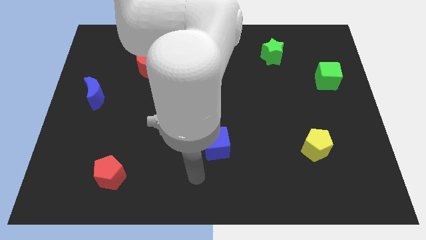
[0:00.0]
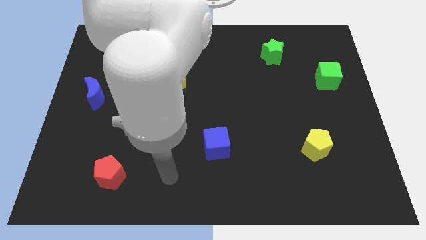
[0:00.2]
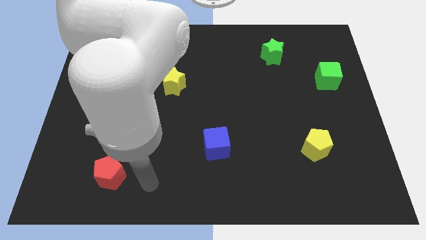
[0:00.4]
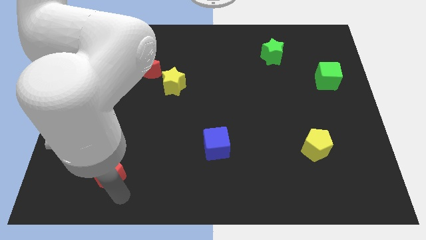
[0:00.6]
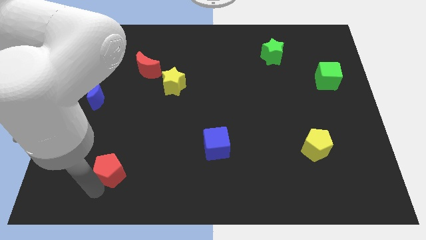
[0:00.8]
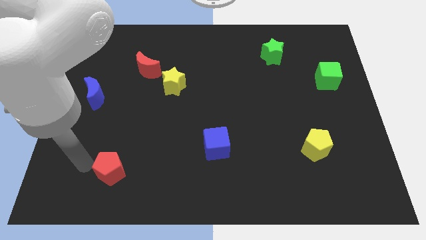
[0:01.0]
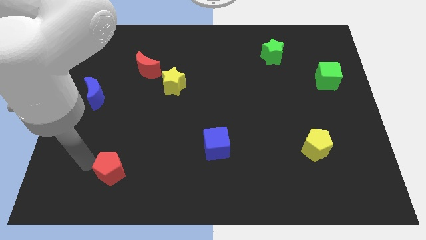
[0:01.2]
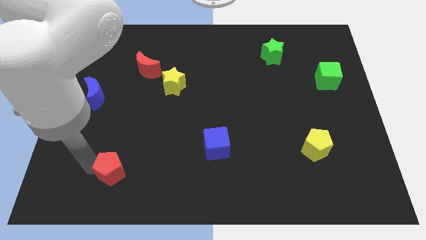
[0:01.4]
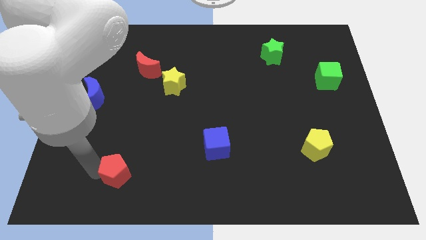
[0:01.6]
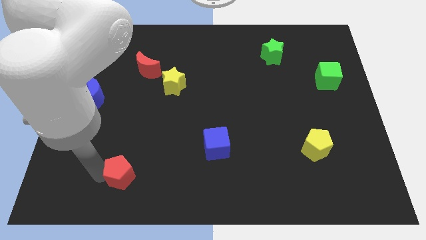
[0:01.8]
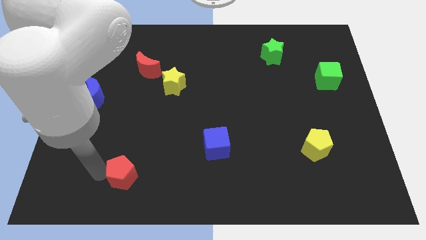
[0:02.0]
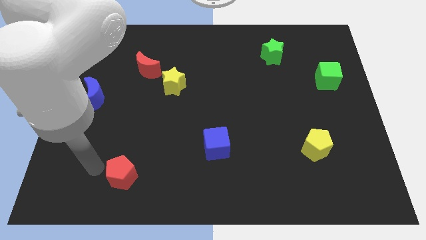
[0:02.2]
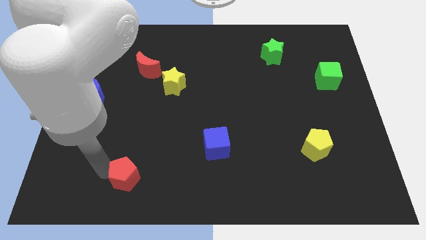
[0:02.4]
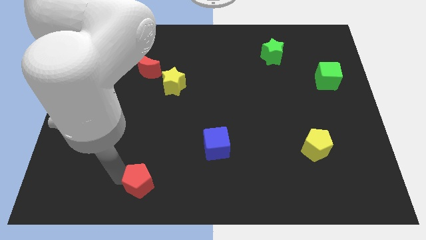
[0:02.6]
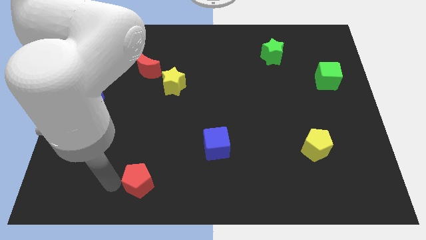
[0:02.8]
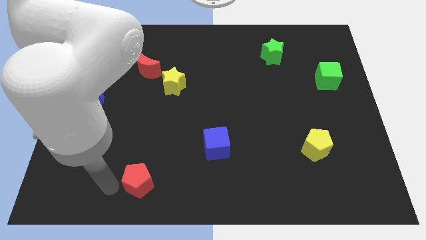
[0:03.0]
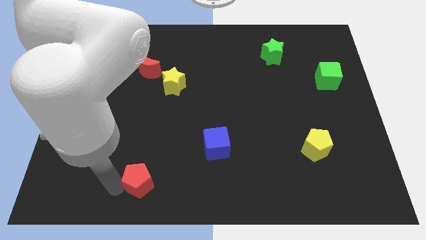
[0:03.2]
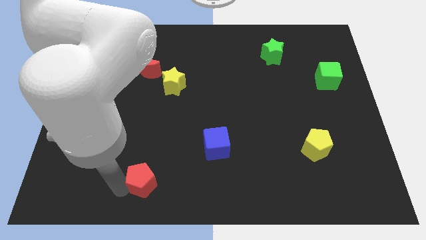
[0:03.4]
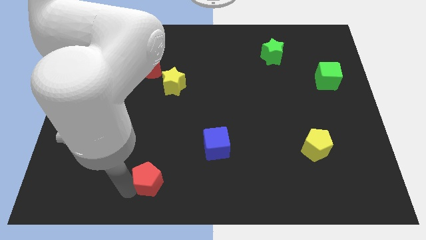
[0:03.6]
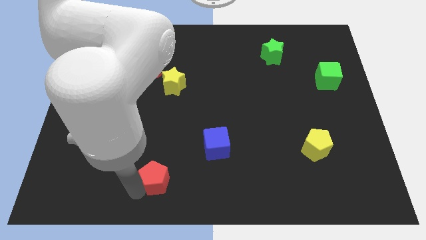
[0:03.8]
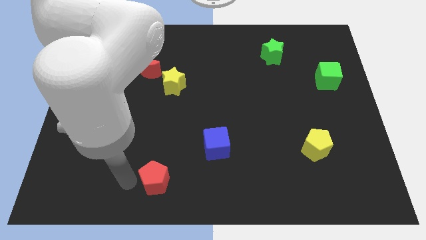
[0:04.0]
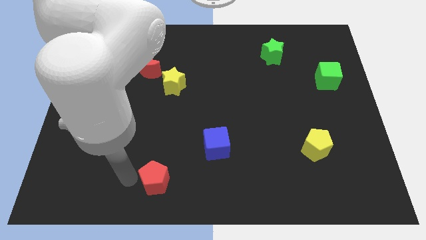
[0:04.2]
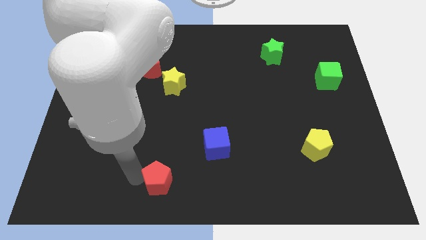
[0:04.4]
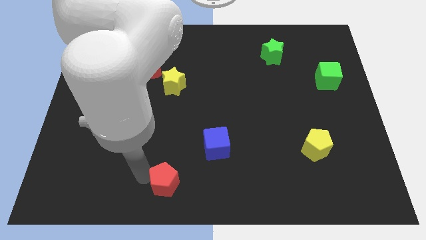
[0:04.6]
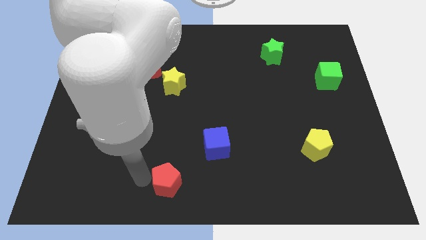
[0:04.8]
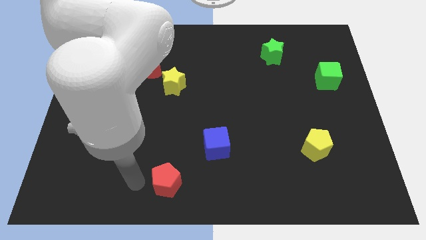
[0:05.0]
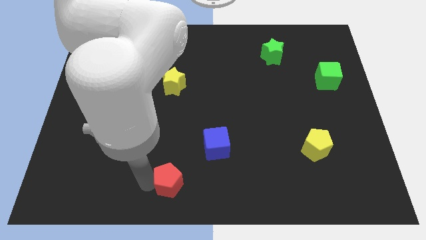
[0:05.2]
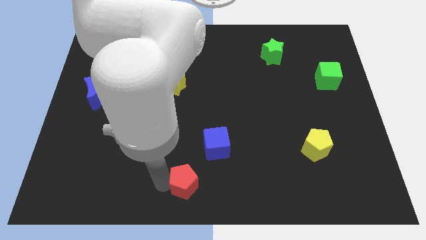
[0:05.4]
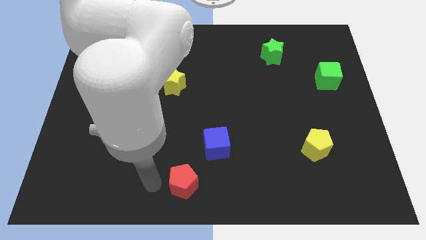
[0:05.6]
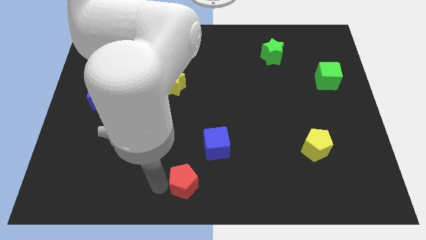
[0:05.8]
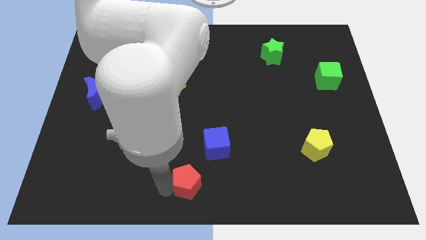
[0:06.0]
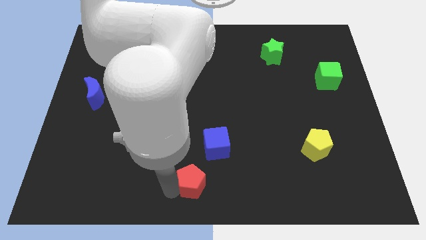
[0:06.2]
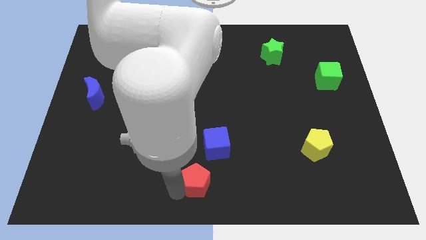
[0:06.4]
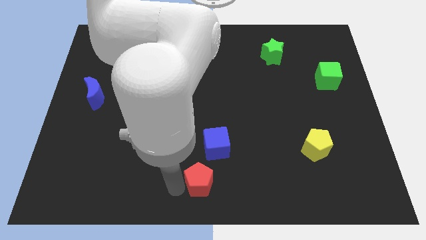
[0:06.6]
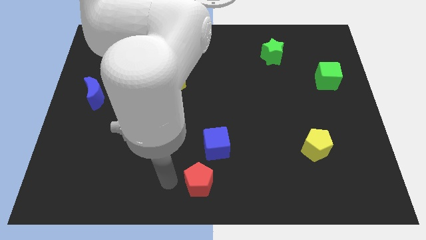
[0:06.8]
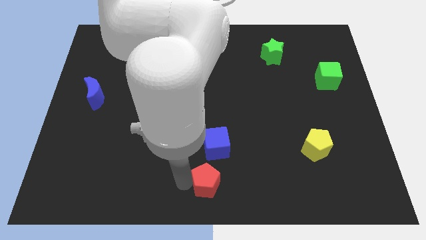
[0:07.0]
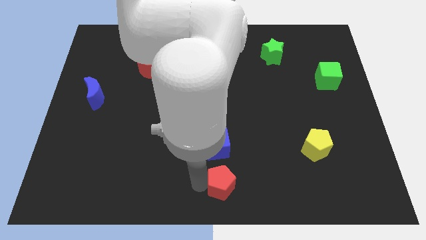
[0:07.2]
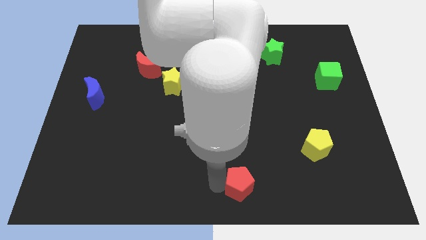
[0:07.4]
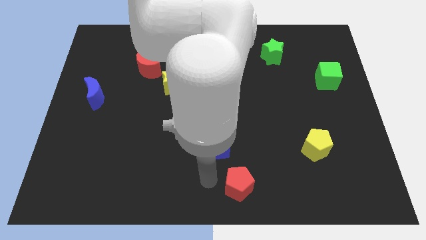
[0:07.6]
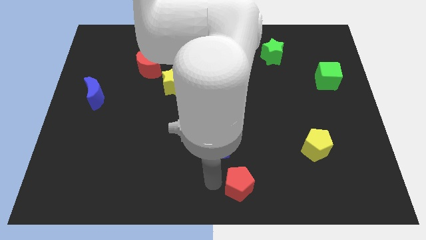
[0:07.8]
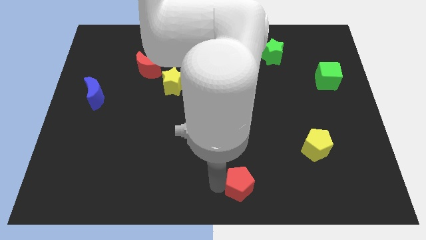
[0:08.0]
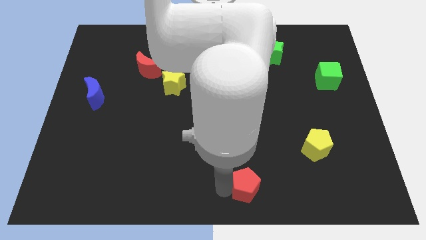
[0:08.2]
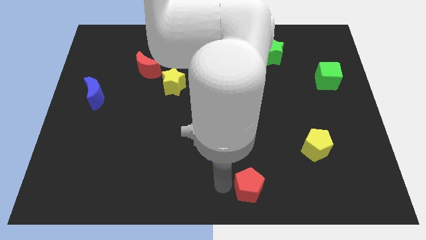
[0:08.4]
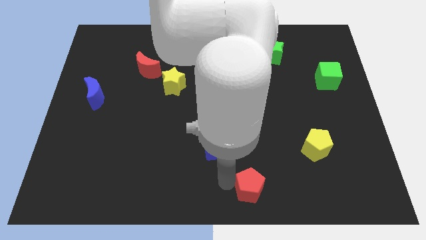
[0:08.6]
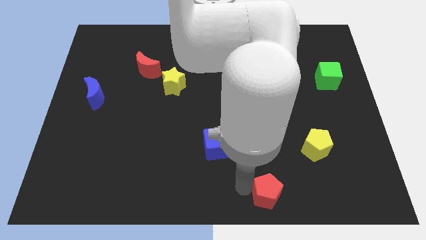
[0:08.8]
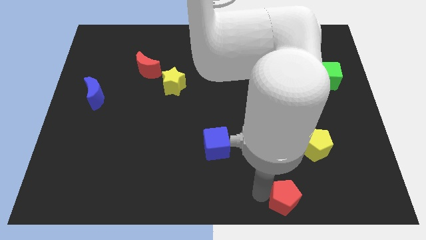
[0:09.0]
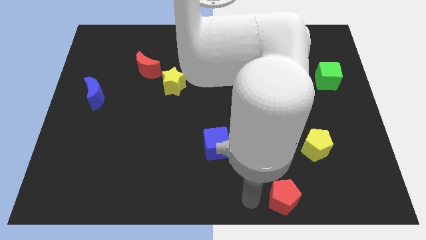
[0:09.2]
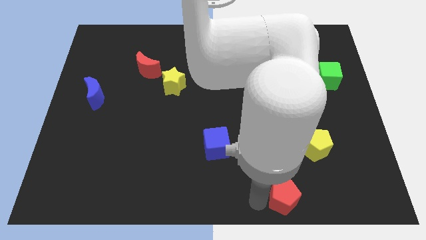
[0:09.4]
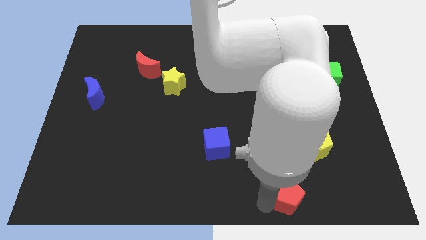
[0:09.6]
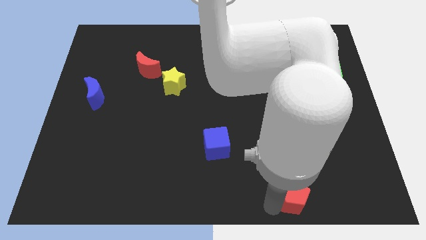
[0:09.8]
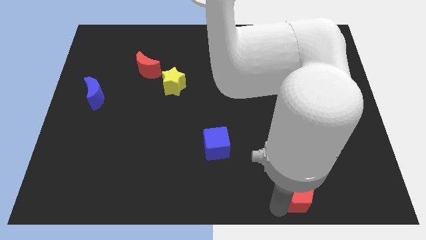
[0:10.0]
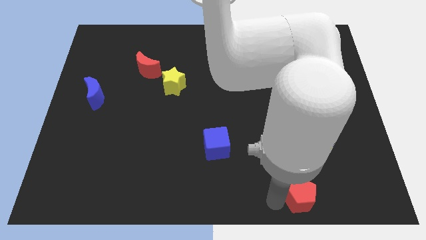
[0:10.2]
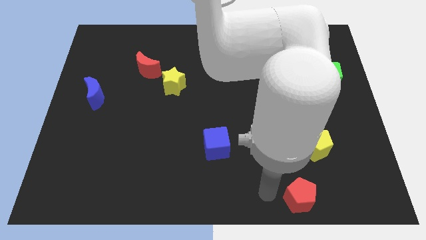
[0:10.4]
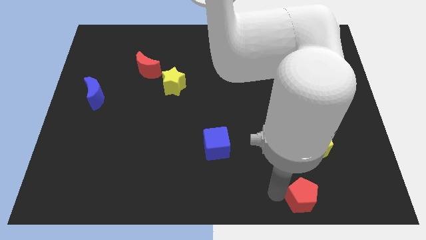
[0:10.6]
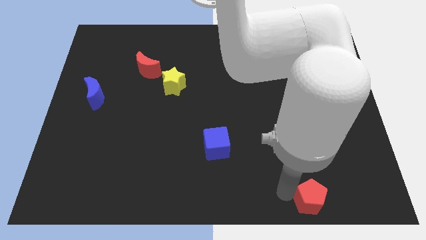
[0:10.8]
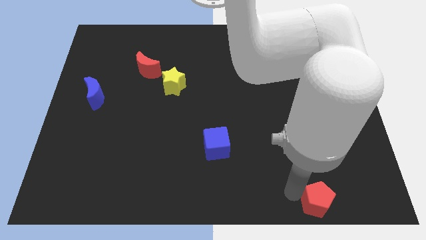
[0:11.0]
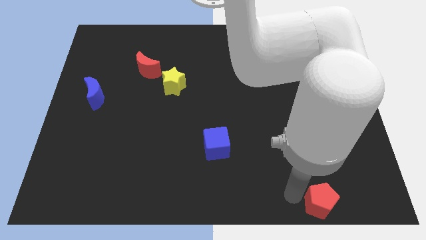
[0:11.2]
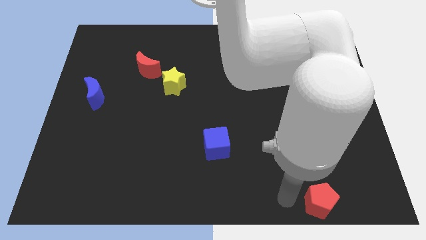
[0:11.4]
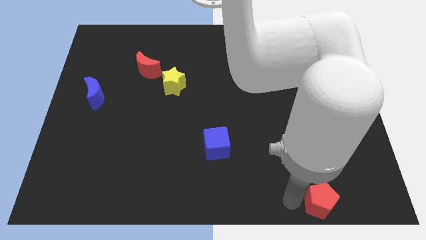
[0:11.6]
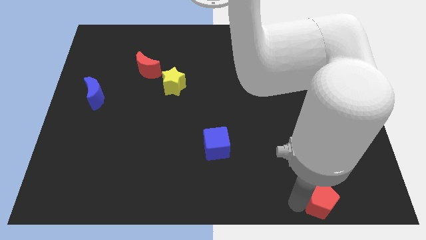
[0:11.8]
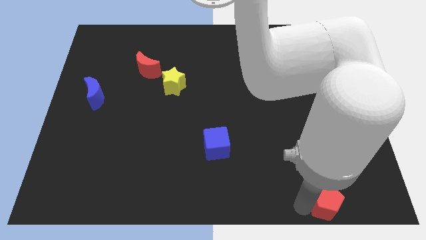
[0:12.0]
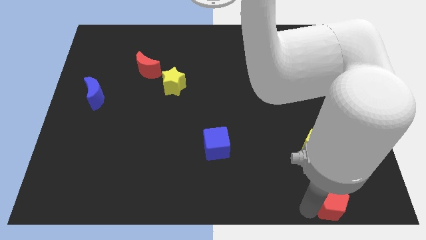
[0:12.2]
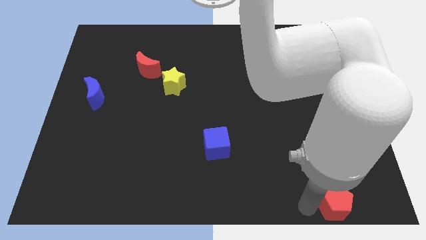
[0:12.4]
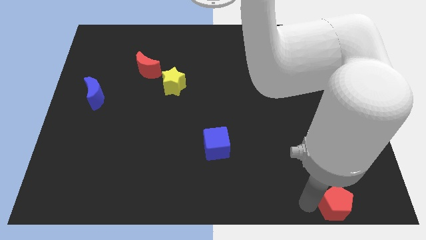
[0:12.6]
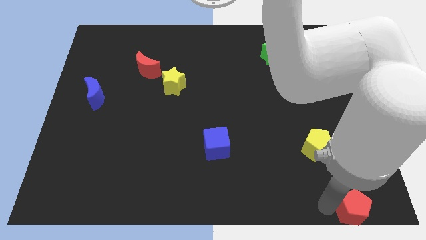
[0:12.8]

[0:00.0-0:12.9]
move the red pentagon to the bottom right corner
